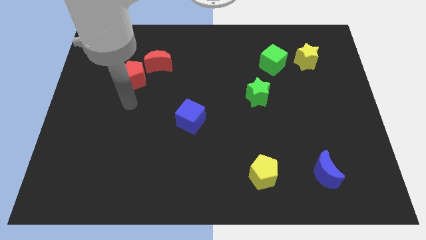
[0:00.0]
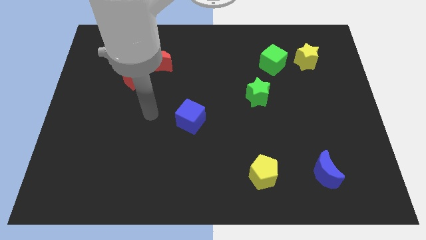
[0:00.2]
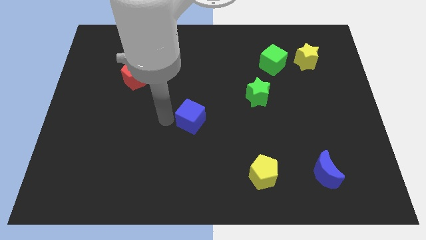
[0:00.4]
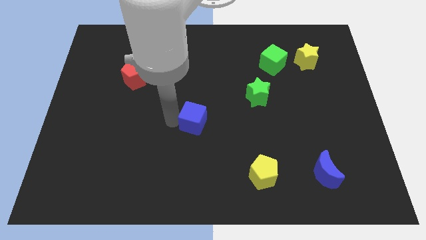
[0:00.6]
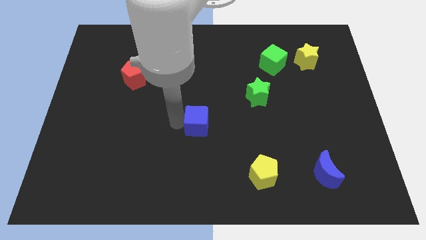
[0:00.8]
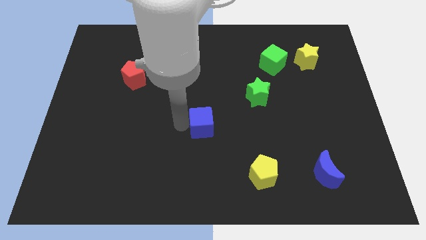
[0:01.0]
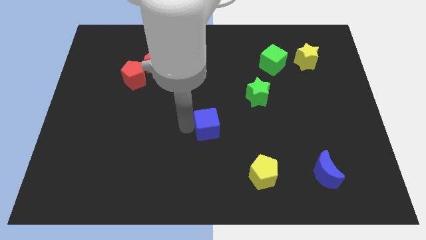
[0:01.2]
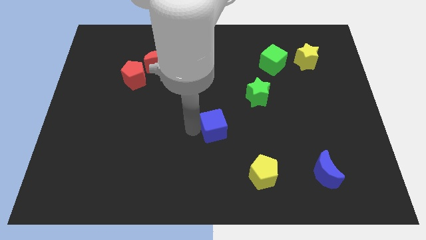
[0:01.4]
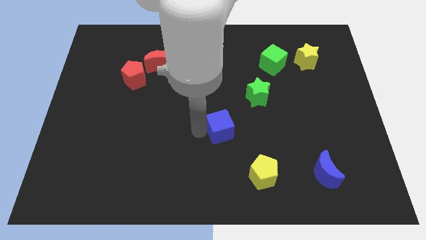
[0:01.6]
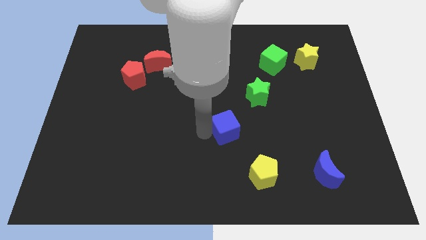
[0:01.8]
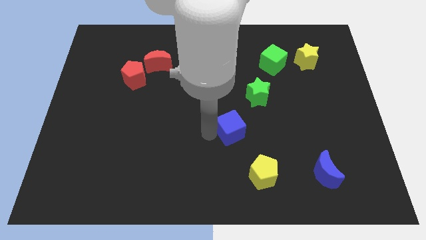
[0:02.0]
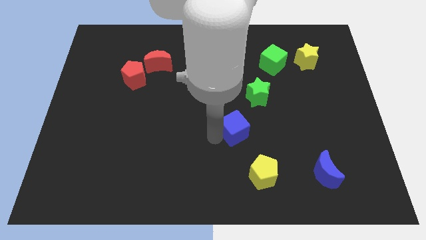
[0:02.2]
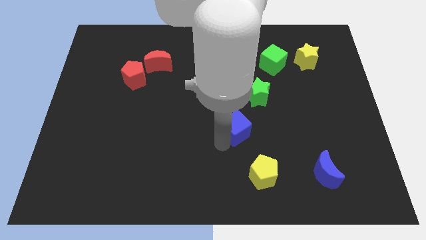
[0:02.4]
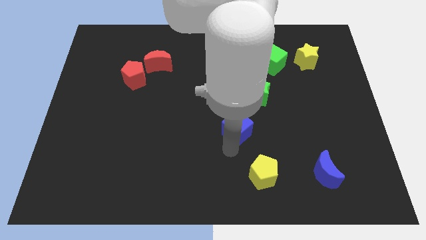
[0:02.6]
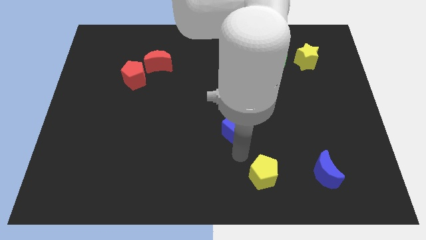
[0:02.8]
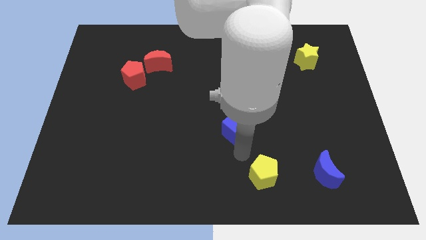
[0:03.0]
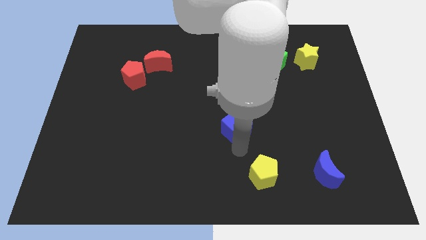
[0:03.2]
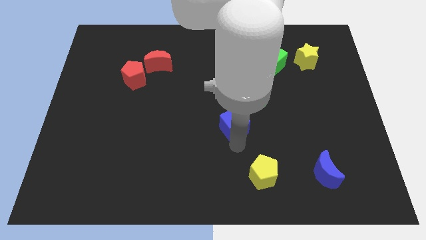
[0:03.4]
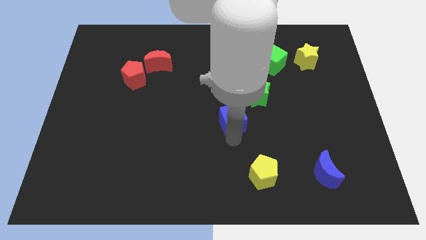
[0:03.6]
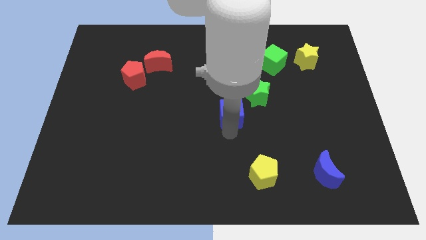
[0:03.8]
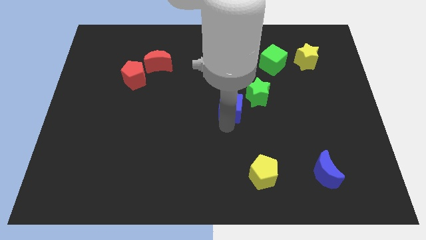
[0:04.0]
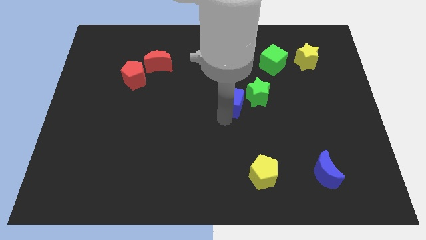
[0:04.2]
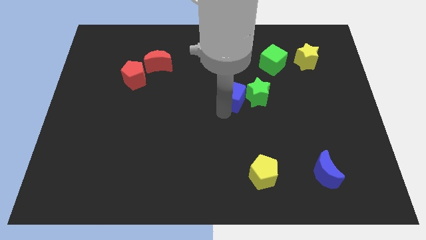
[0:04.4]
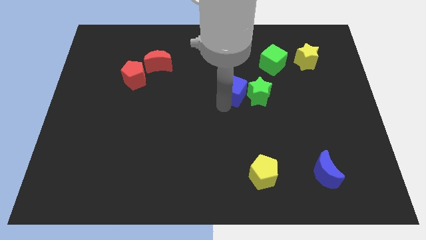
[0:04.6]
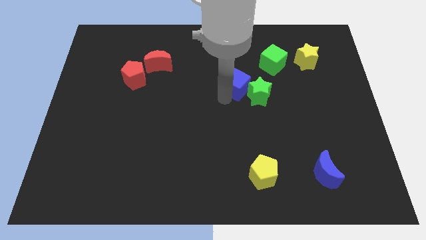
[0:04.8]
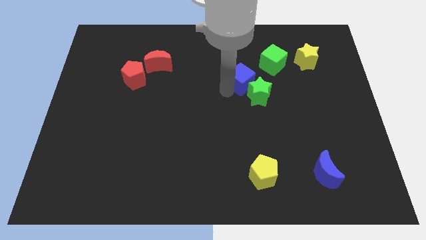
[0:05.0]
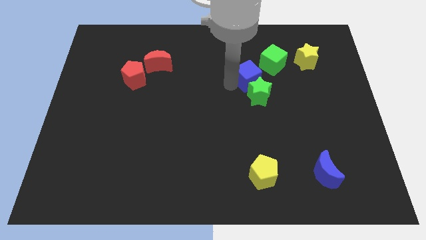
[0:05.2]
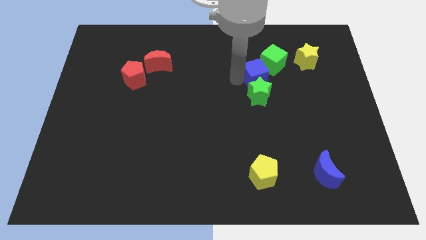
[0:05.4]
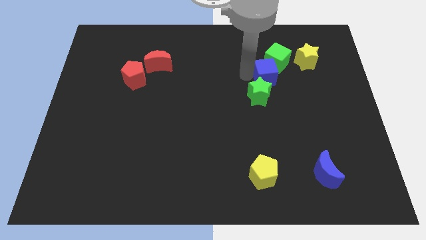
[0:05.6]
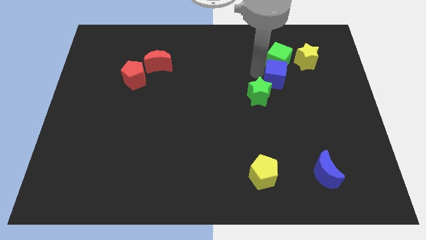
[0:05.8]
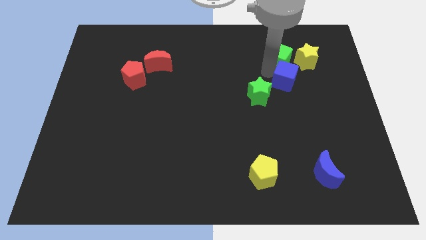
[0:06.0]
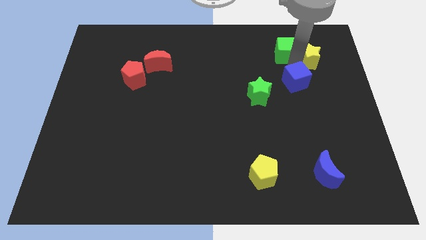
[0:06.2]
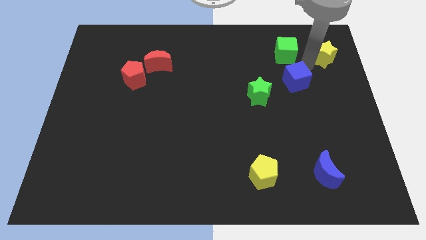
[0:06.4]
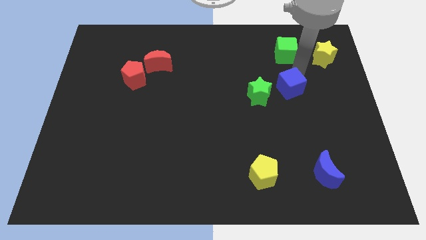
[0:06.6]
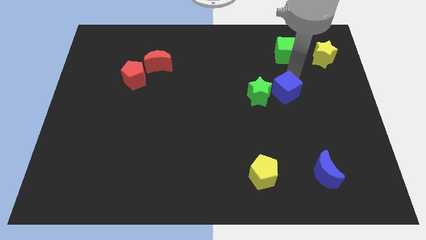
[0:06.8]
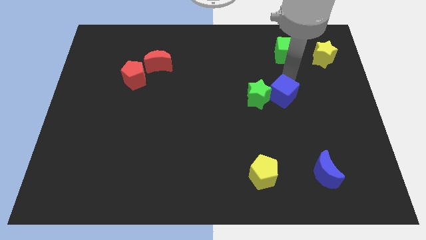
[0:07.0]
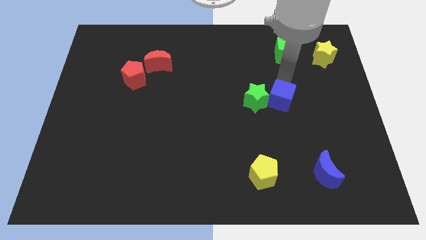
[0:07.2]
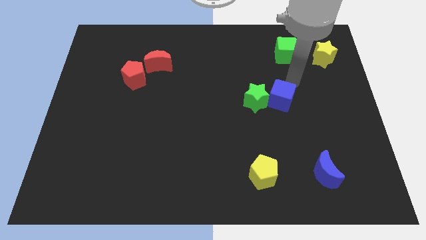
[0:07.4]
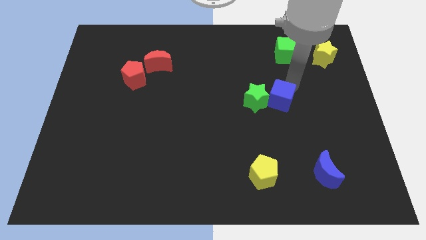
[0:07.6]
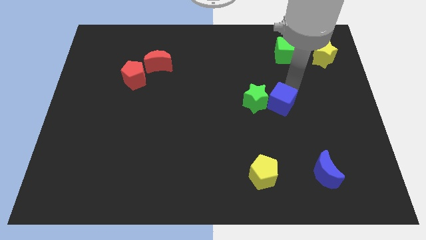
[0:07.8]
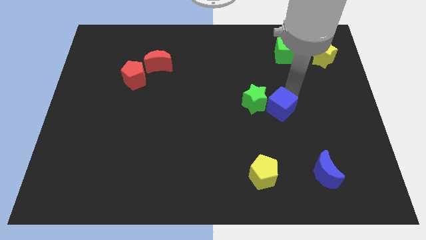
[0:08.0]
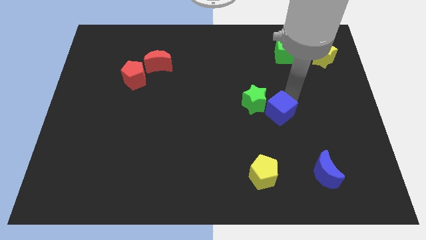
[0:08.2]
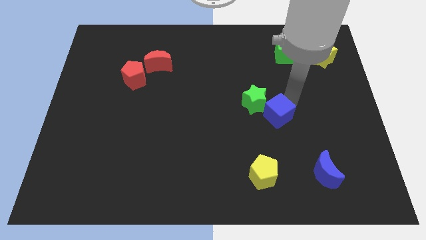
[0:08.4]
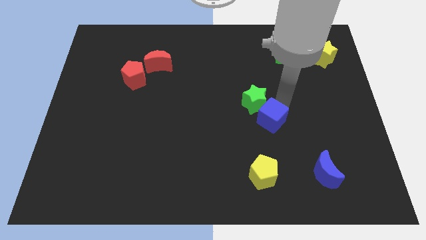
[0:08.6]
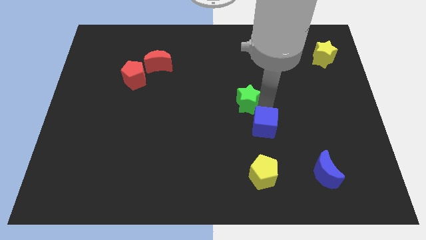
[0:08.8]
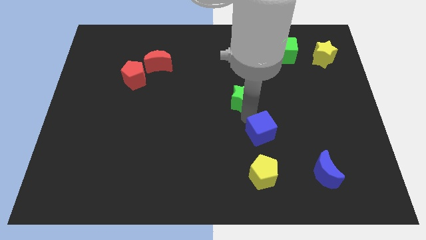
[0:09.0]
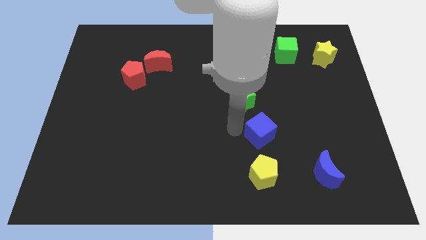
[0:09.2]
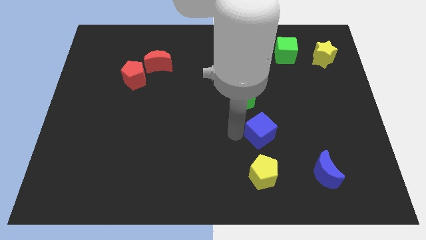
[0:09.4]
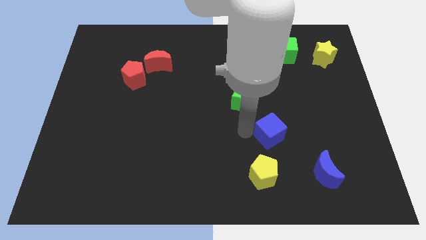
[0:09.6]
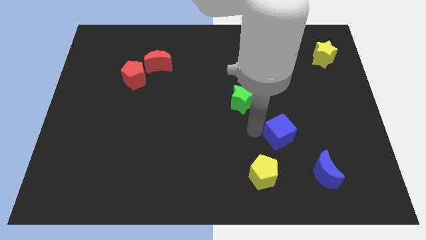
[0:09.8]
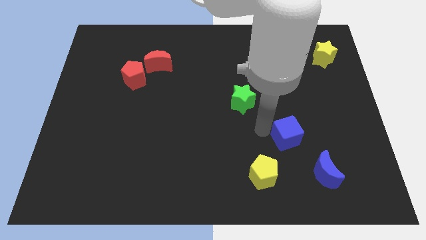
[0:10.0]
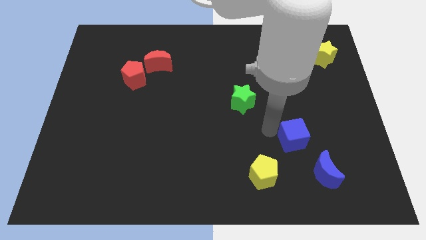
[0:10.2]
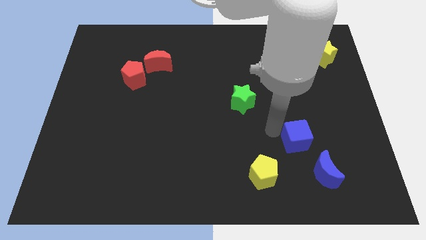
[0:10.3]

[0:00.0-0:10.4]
push the blue cube to the top side of the blue moon

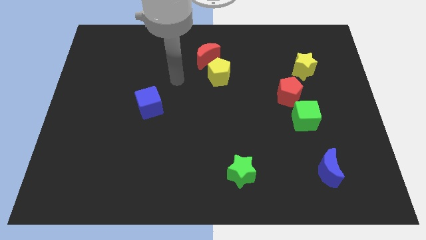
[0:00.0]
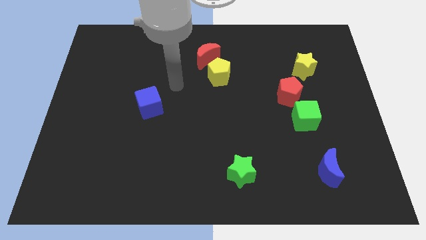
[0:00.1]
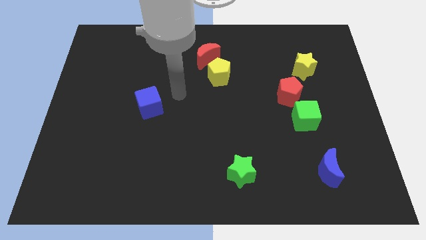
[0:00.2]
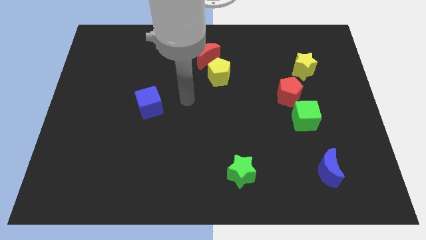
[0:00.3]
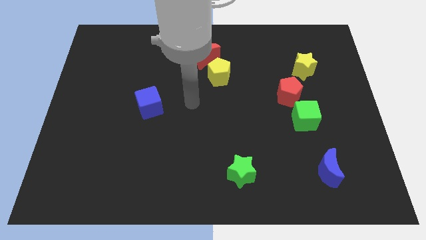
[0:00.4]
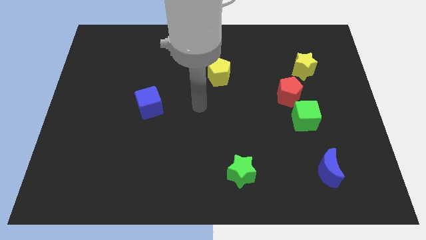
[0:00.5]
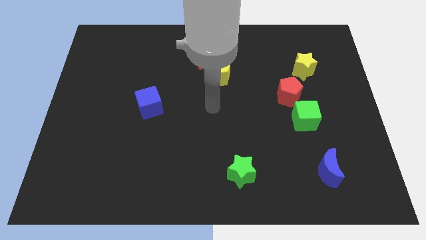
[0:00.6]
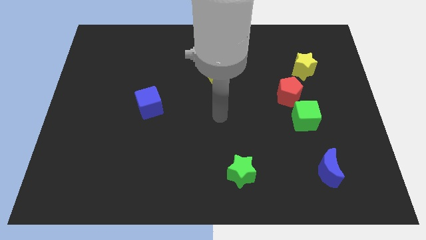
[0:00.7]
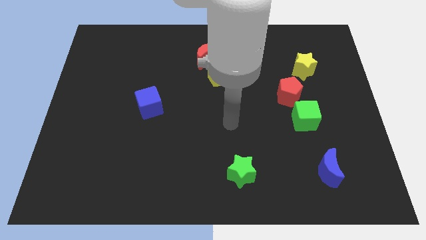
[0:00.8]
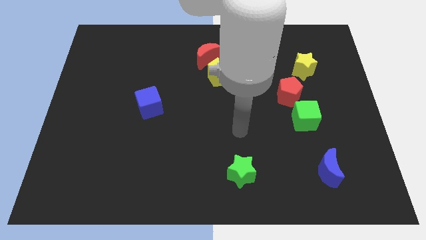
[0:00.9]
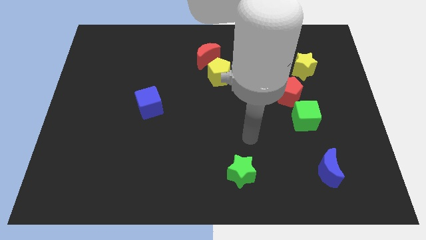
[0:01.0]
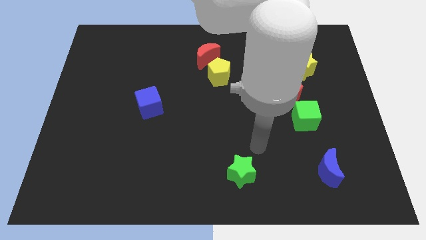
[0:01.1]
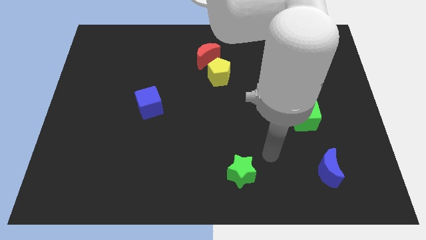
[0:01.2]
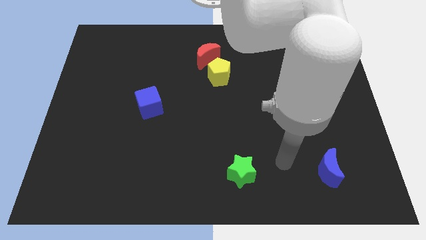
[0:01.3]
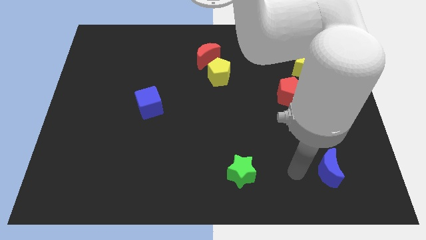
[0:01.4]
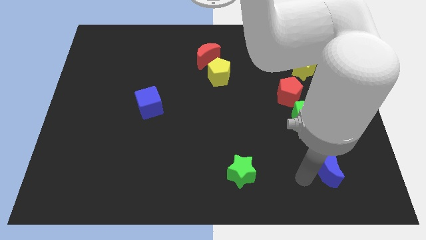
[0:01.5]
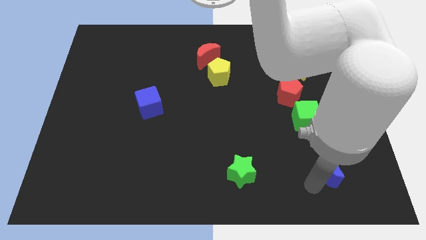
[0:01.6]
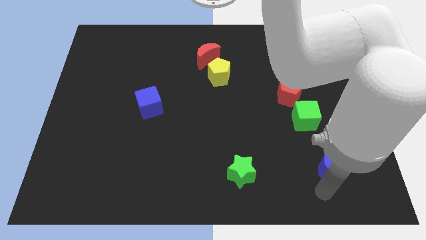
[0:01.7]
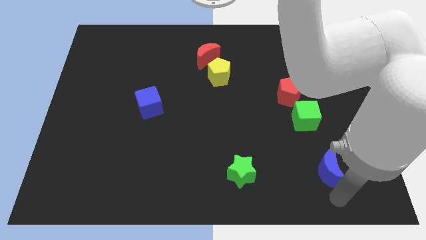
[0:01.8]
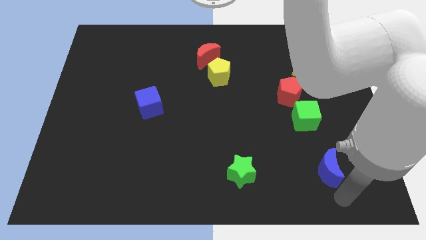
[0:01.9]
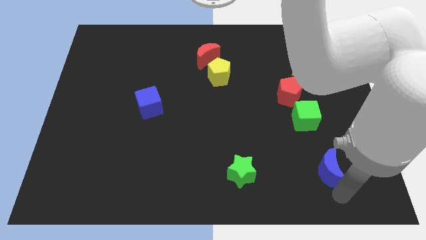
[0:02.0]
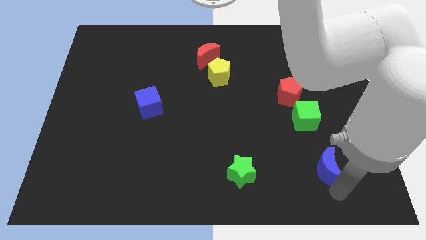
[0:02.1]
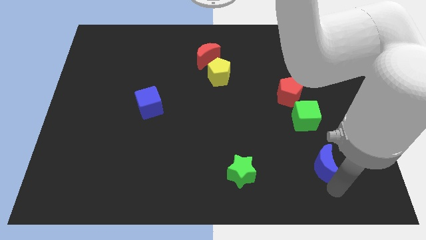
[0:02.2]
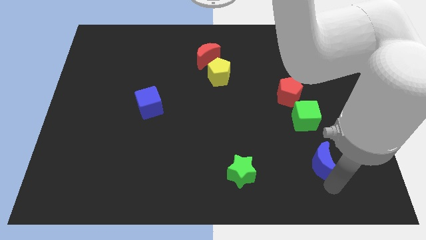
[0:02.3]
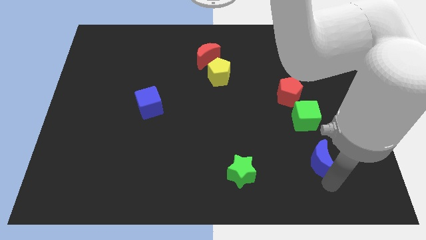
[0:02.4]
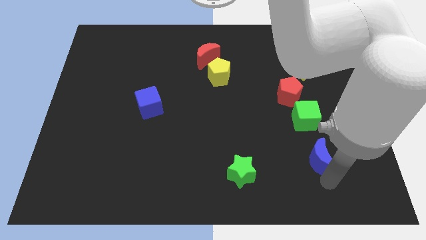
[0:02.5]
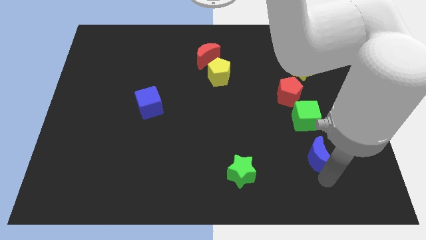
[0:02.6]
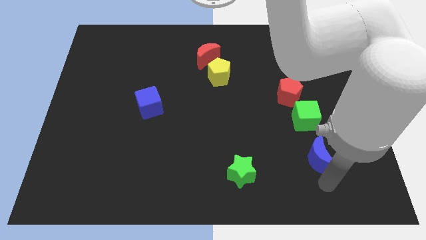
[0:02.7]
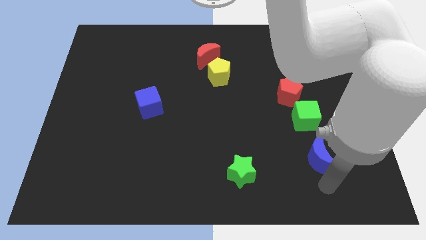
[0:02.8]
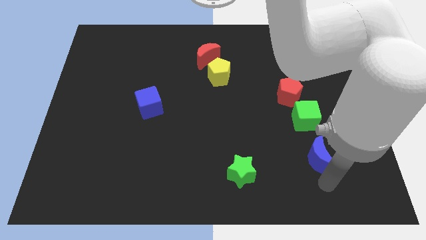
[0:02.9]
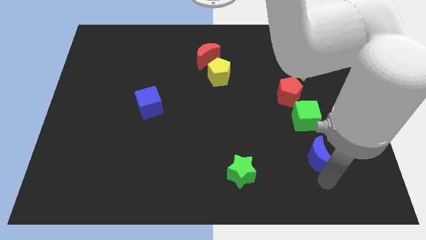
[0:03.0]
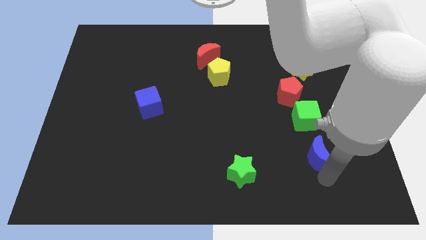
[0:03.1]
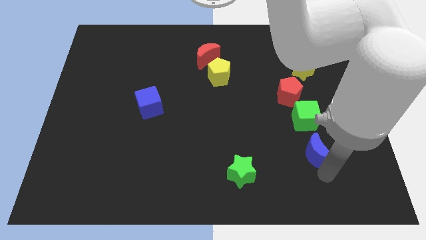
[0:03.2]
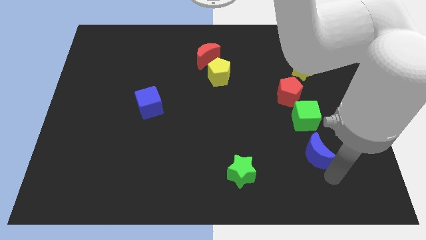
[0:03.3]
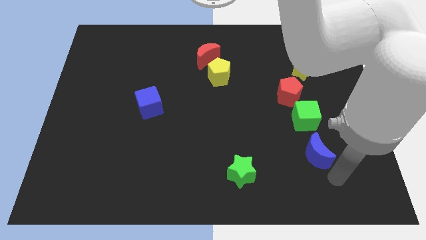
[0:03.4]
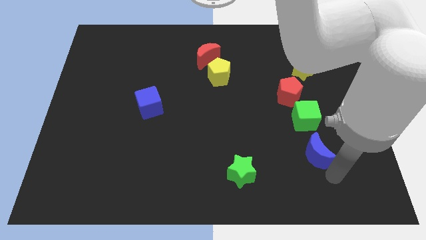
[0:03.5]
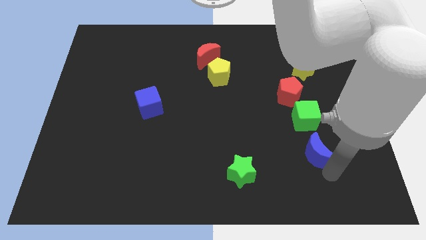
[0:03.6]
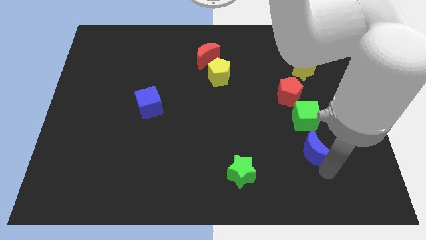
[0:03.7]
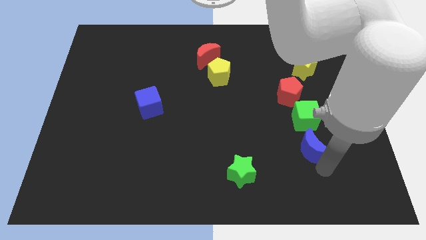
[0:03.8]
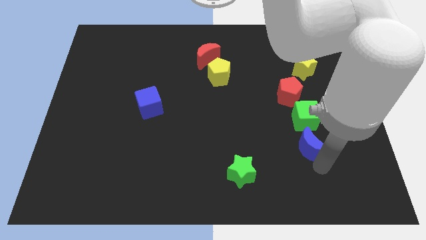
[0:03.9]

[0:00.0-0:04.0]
slide the blue moon below the red pentagon
